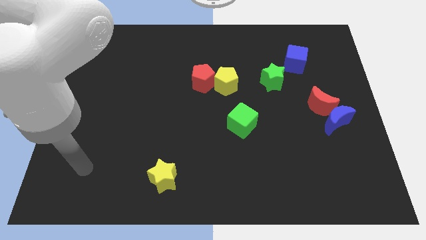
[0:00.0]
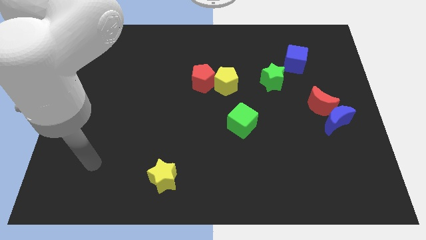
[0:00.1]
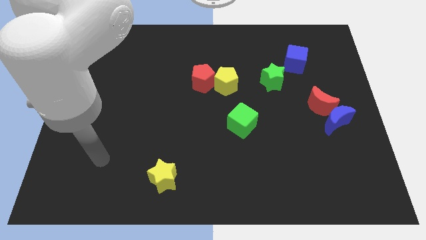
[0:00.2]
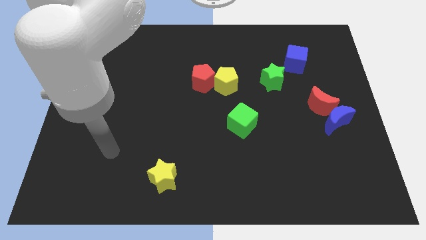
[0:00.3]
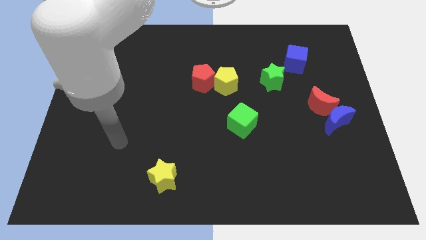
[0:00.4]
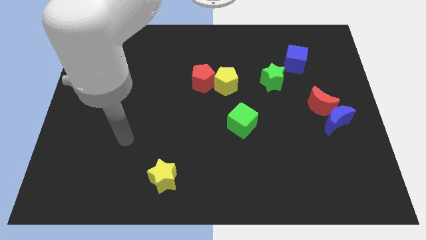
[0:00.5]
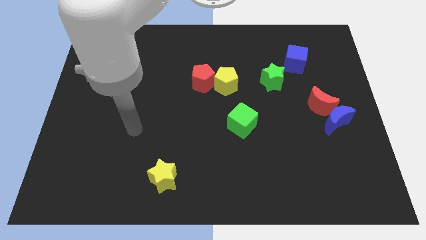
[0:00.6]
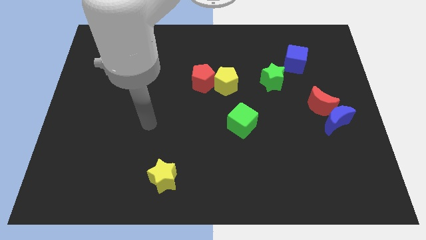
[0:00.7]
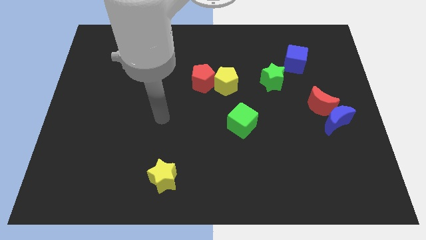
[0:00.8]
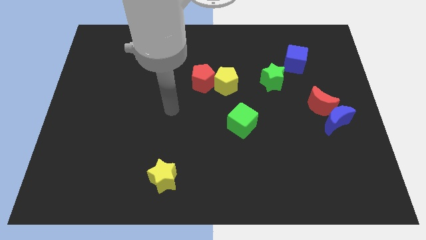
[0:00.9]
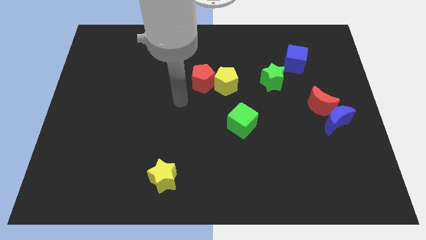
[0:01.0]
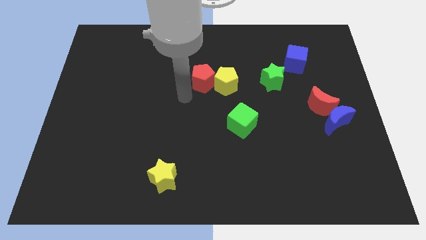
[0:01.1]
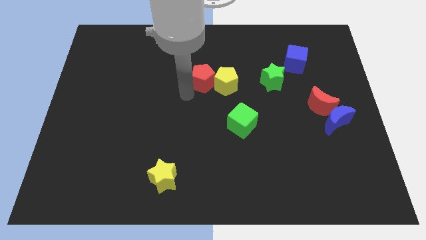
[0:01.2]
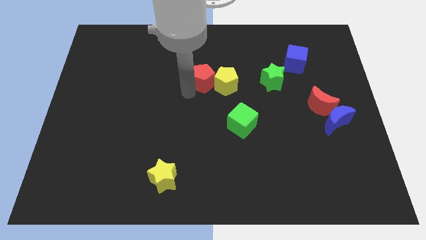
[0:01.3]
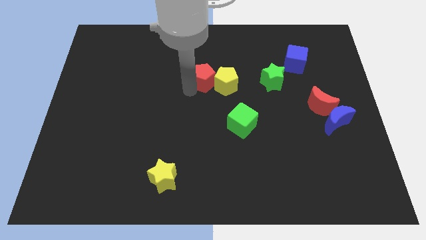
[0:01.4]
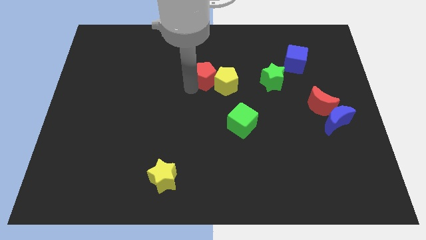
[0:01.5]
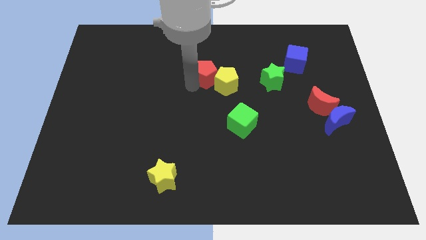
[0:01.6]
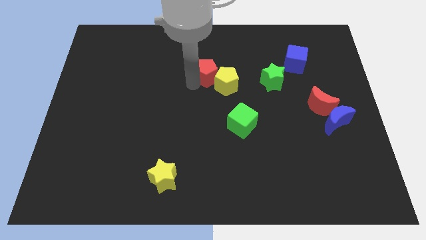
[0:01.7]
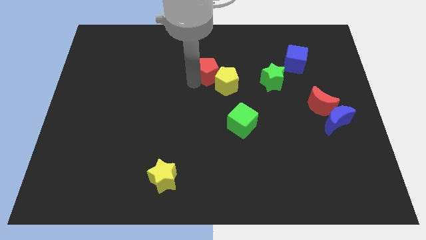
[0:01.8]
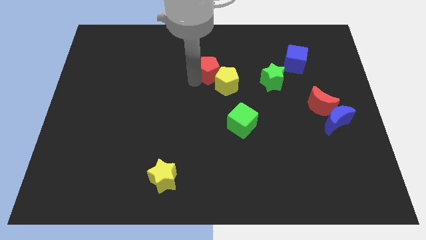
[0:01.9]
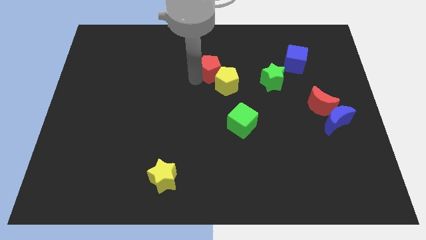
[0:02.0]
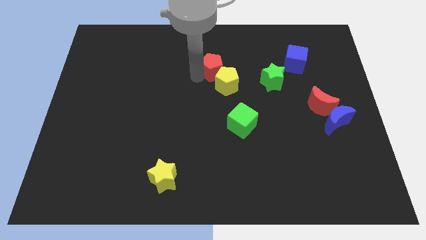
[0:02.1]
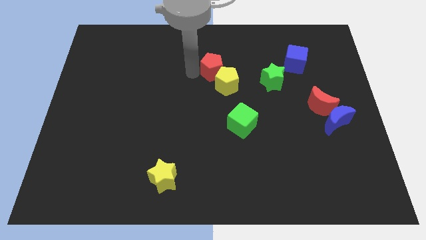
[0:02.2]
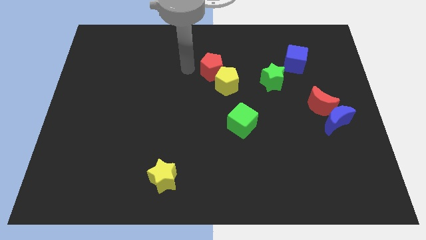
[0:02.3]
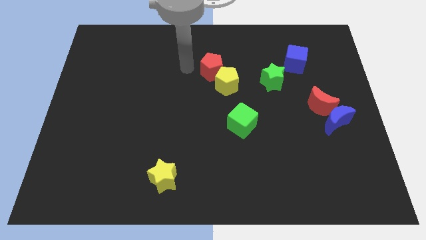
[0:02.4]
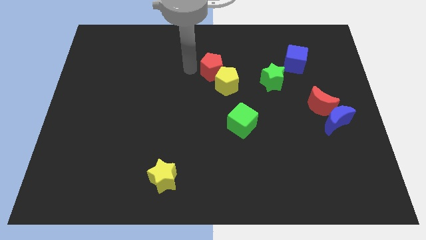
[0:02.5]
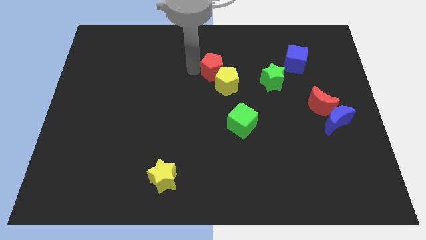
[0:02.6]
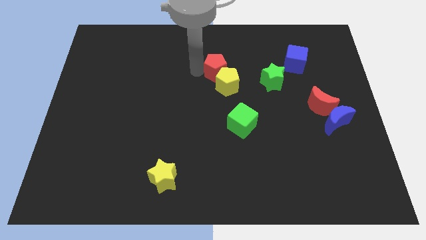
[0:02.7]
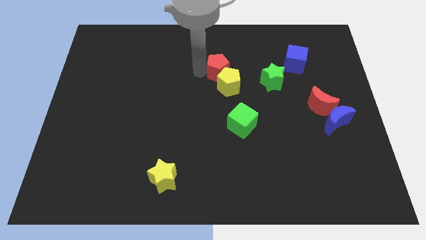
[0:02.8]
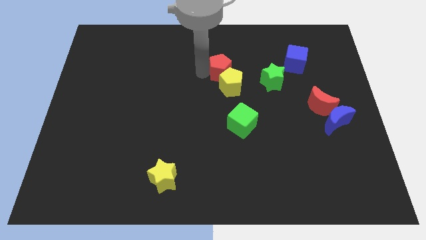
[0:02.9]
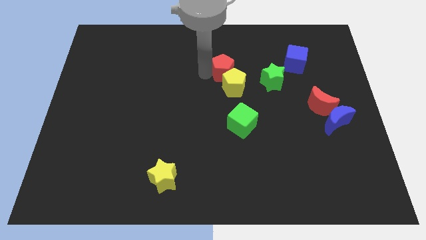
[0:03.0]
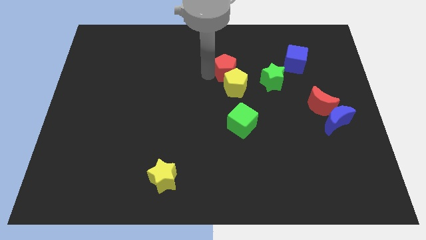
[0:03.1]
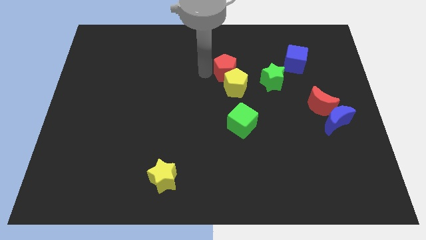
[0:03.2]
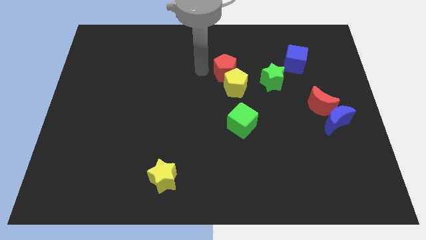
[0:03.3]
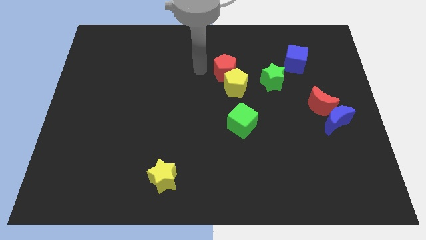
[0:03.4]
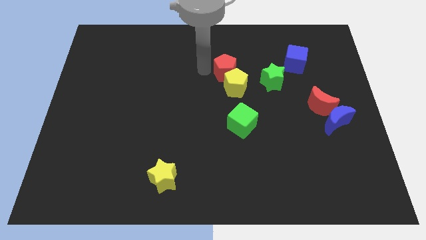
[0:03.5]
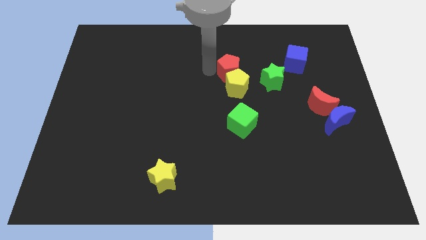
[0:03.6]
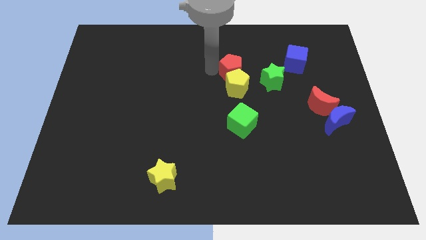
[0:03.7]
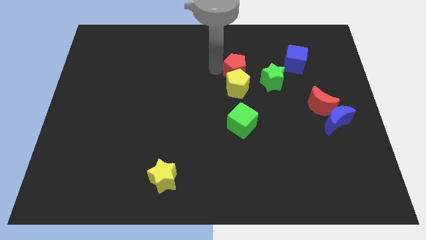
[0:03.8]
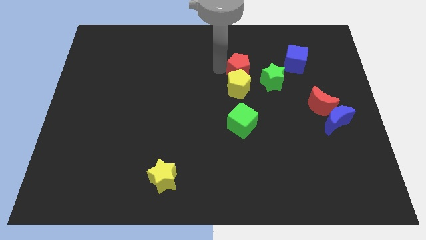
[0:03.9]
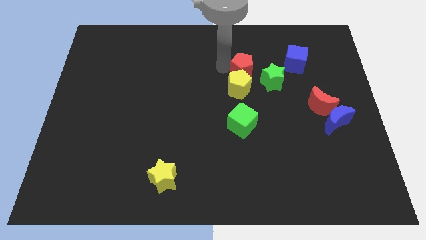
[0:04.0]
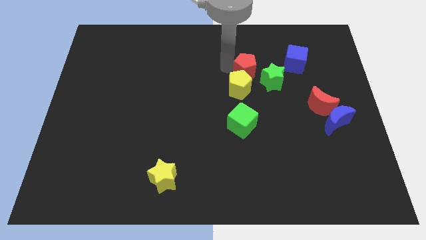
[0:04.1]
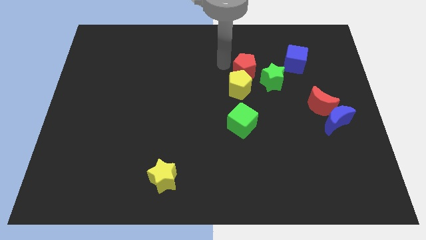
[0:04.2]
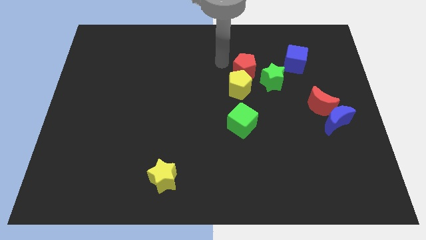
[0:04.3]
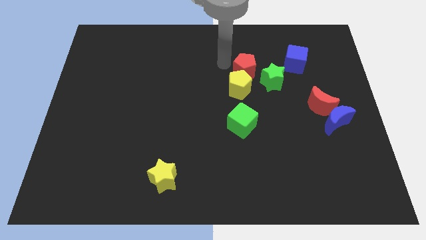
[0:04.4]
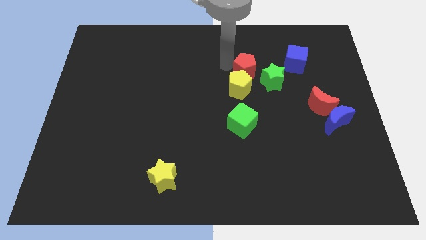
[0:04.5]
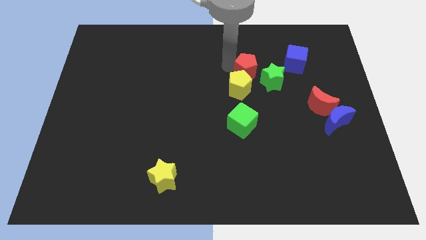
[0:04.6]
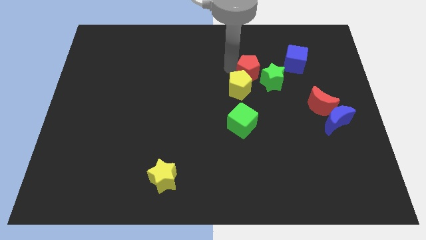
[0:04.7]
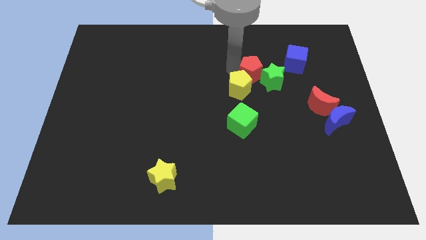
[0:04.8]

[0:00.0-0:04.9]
put the red pentagon next to the green star

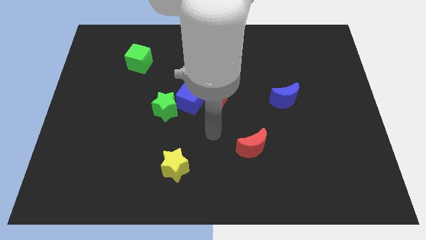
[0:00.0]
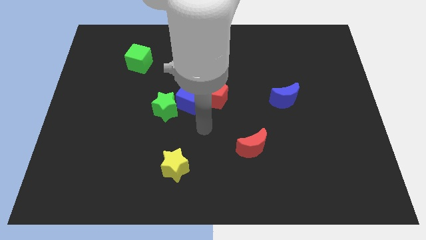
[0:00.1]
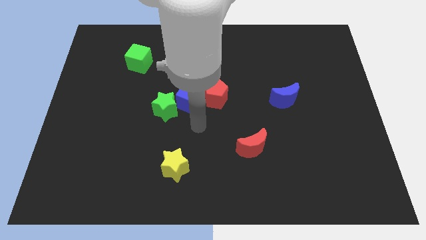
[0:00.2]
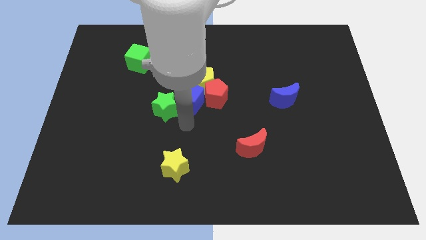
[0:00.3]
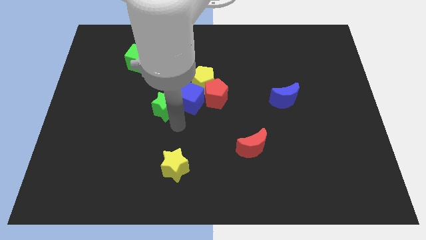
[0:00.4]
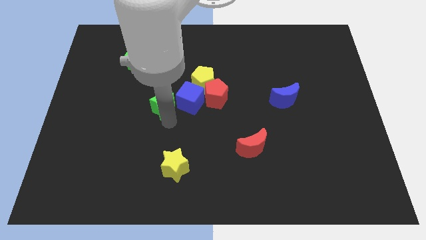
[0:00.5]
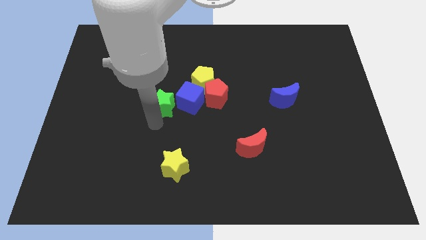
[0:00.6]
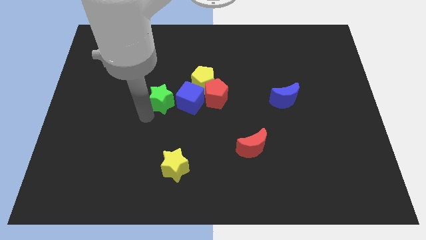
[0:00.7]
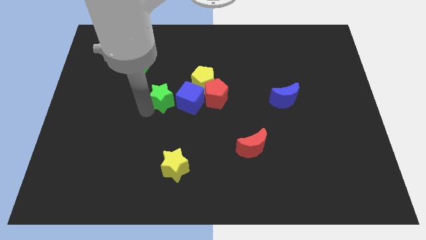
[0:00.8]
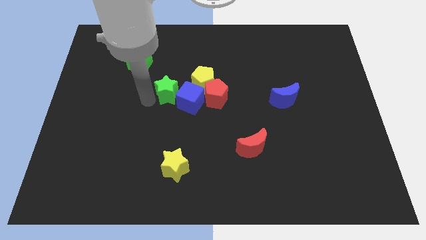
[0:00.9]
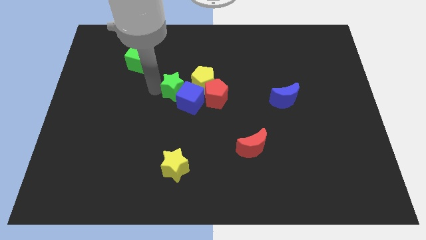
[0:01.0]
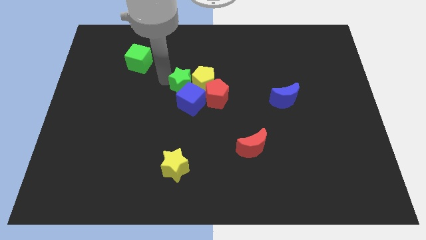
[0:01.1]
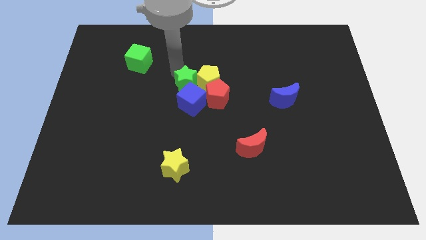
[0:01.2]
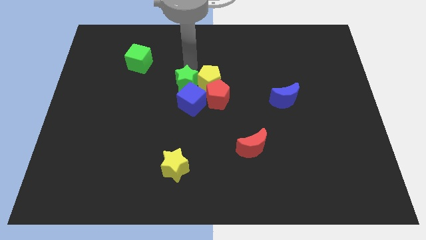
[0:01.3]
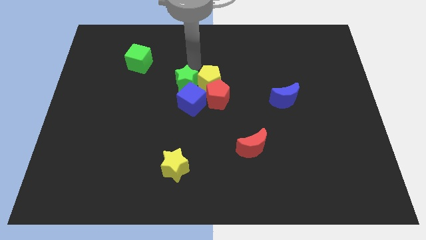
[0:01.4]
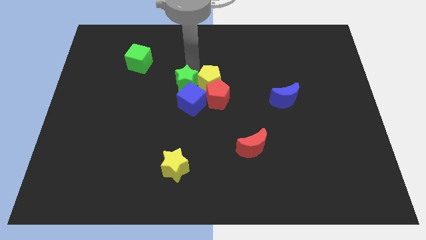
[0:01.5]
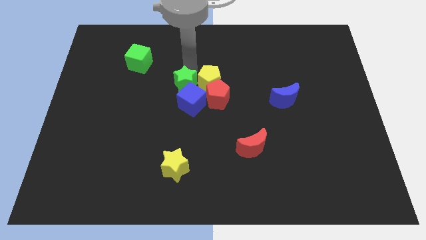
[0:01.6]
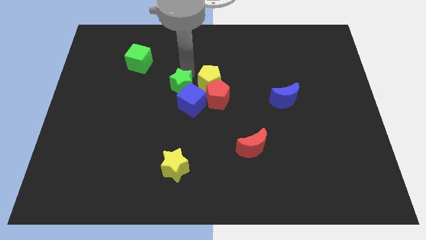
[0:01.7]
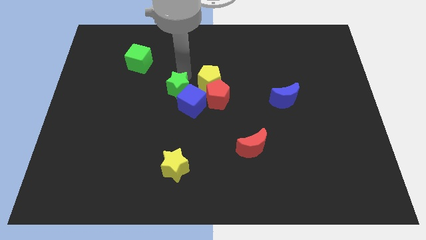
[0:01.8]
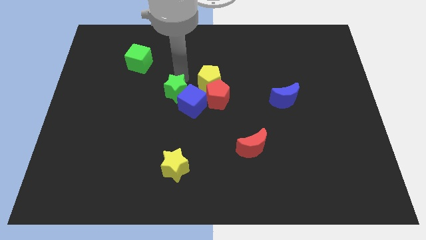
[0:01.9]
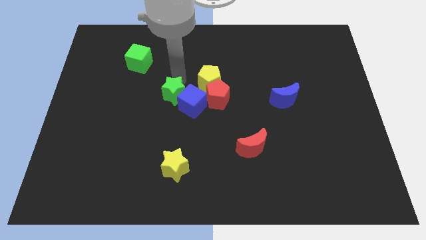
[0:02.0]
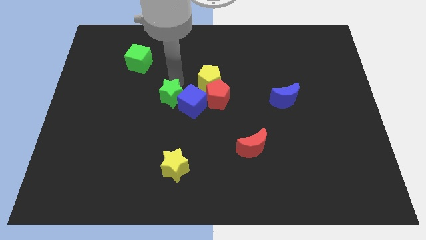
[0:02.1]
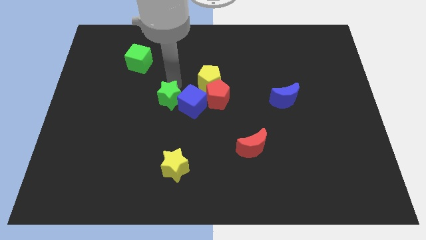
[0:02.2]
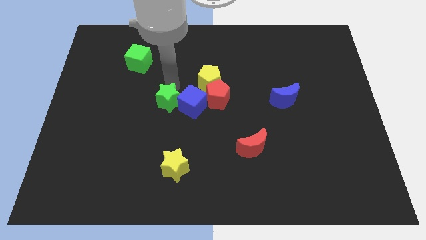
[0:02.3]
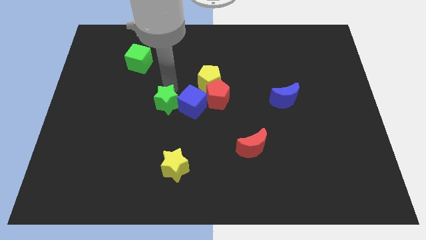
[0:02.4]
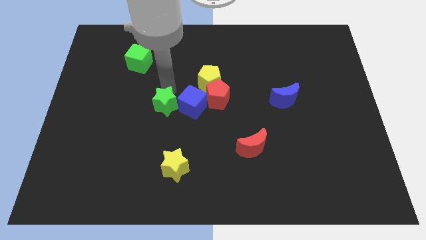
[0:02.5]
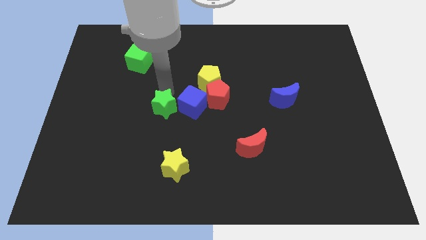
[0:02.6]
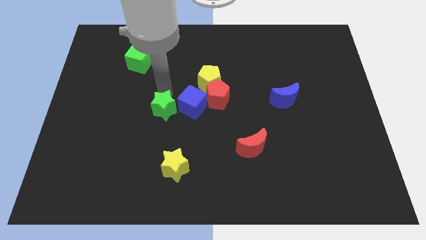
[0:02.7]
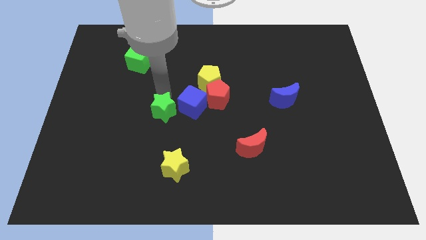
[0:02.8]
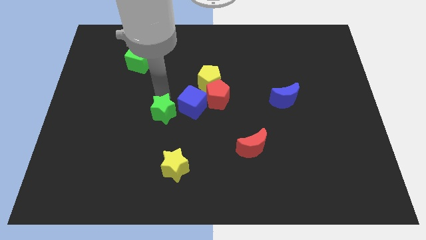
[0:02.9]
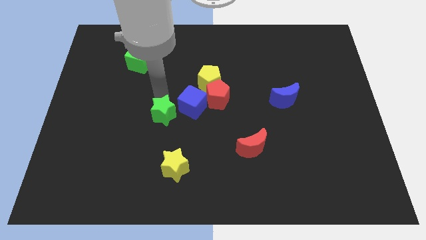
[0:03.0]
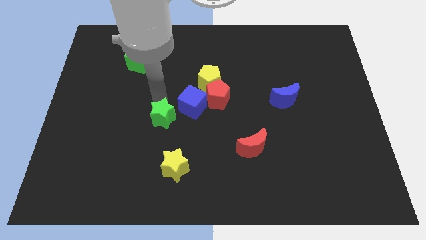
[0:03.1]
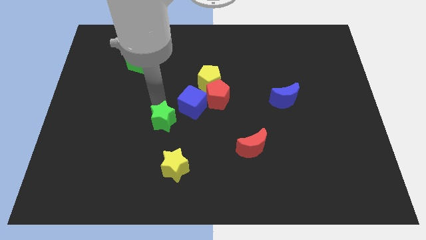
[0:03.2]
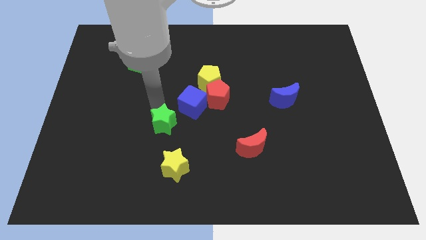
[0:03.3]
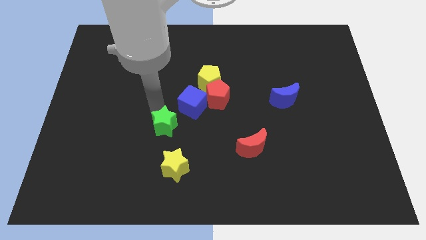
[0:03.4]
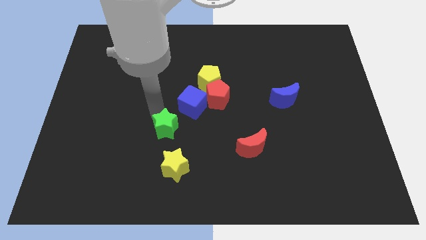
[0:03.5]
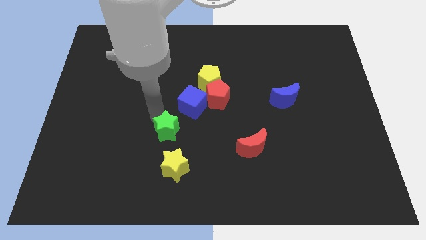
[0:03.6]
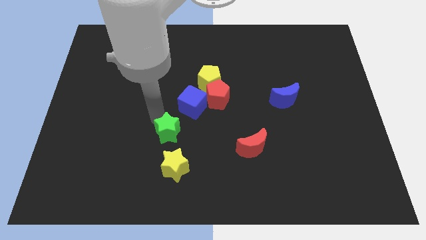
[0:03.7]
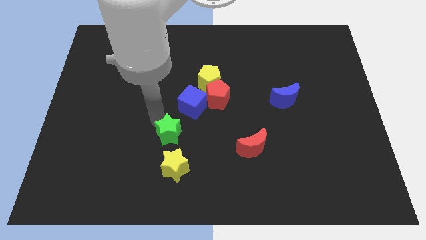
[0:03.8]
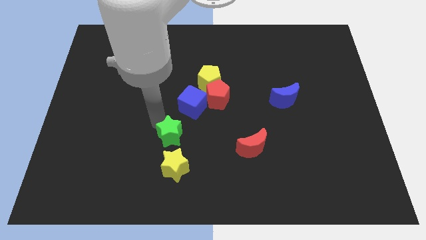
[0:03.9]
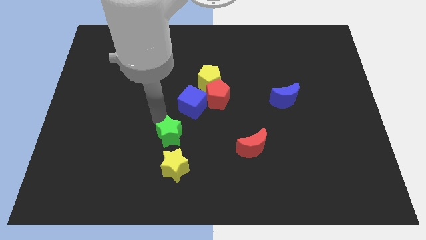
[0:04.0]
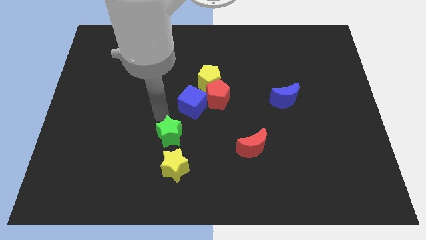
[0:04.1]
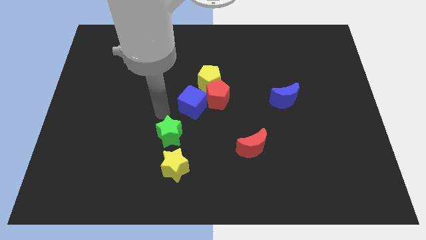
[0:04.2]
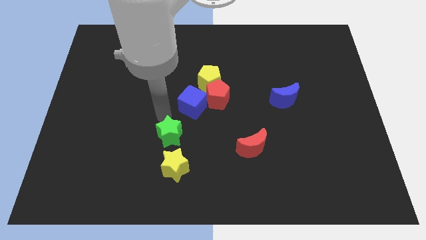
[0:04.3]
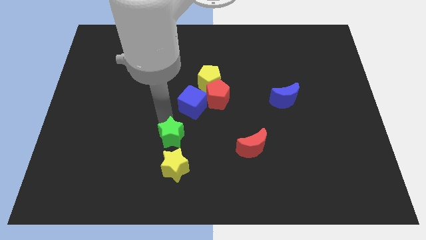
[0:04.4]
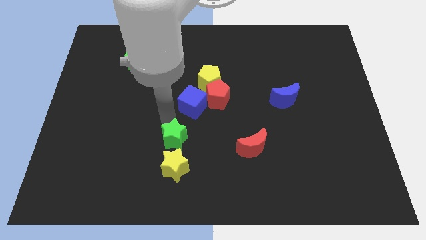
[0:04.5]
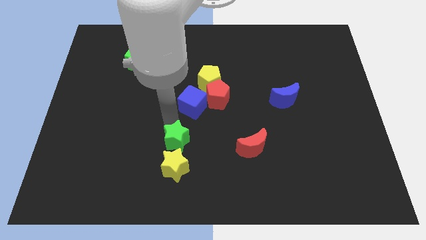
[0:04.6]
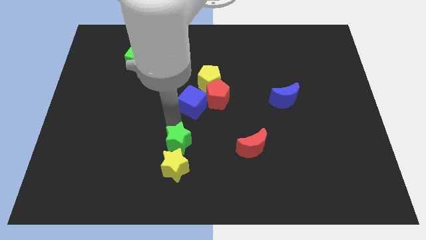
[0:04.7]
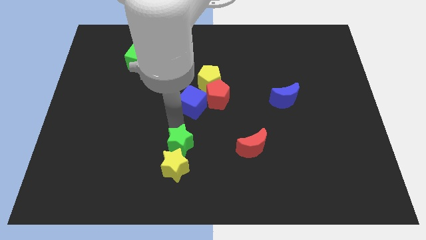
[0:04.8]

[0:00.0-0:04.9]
slide the green star close to the yellow star
